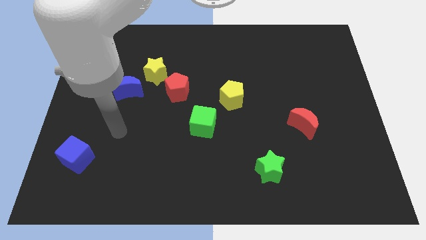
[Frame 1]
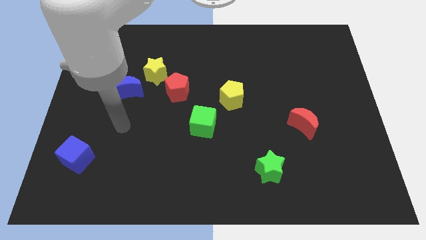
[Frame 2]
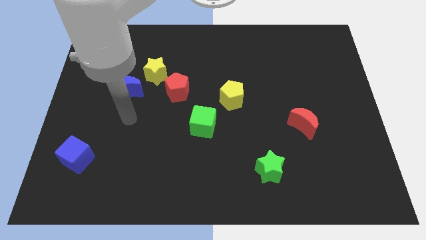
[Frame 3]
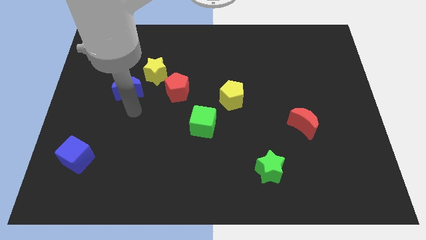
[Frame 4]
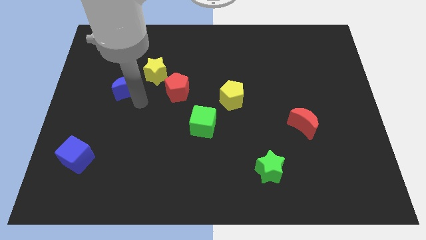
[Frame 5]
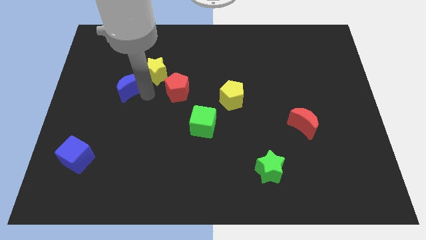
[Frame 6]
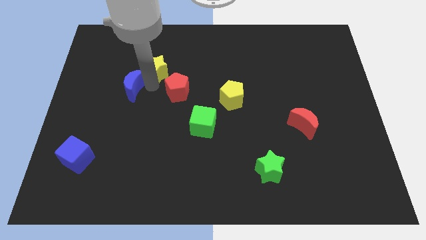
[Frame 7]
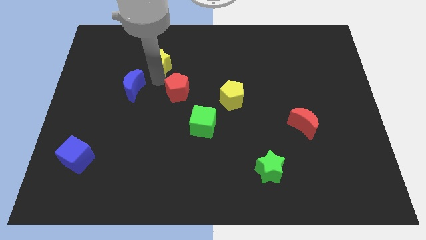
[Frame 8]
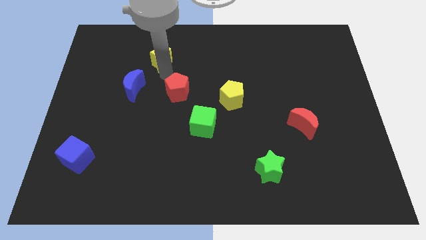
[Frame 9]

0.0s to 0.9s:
pull the red pentagon apart from the yellow star

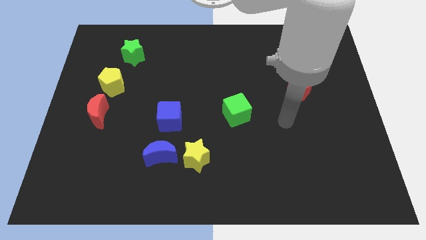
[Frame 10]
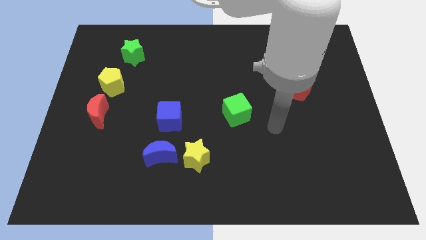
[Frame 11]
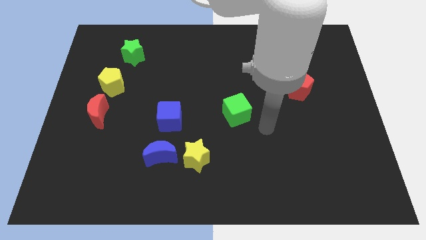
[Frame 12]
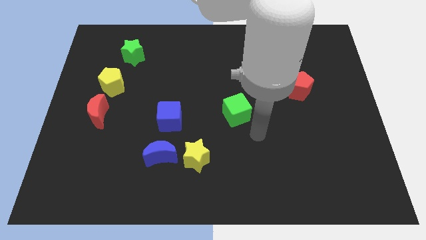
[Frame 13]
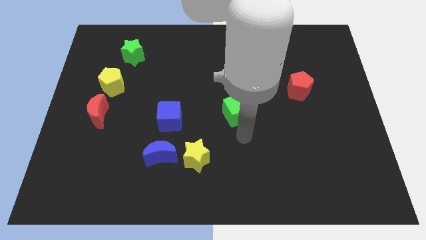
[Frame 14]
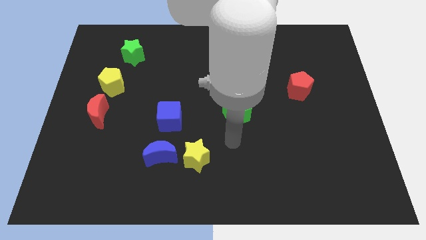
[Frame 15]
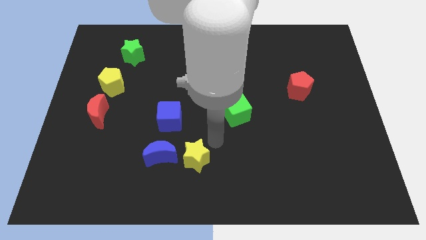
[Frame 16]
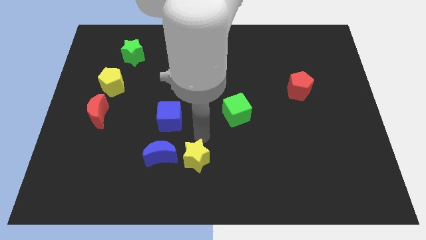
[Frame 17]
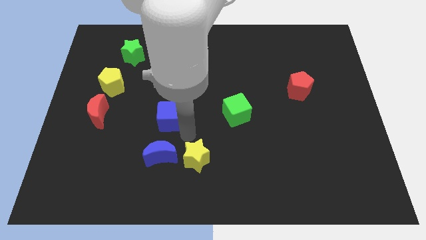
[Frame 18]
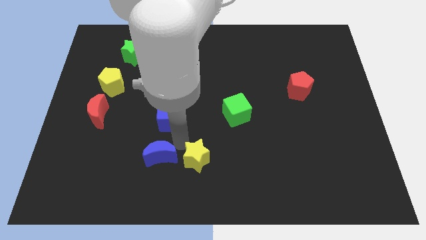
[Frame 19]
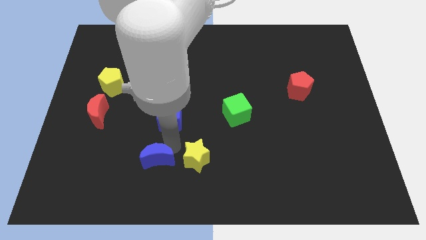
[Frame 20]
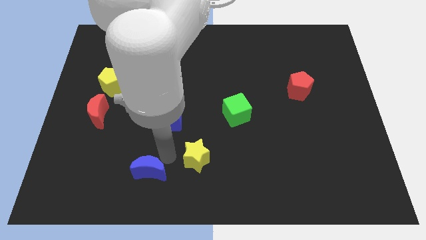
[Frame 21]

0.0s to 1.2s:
separate the yellow star from the blue moon

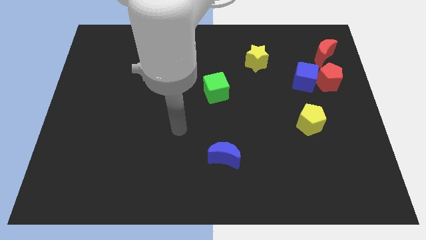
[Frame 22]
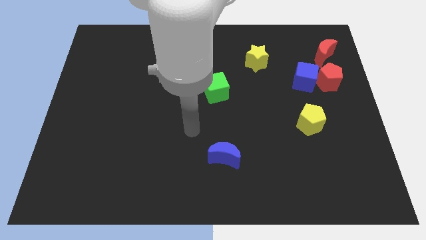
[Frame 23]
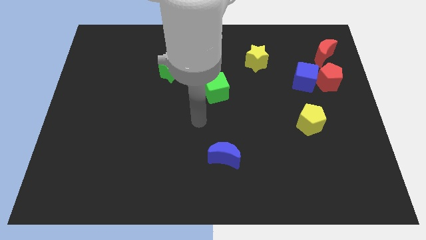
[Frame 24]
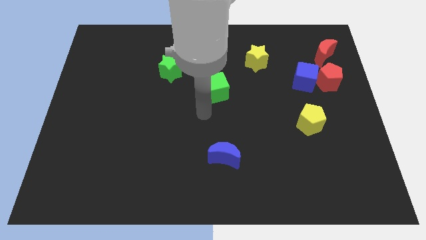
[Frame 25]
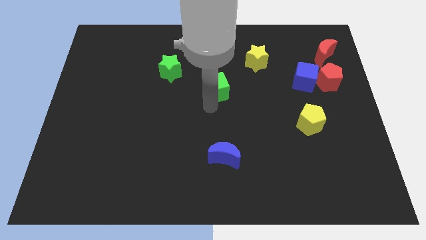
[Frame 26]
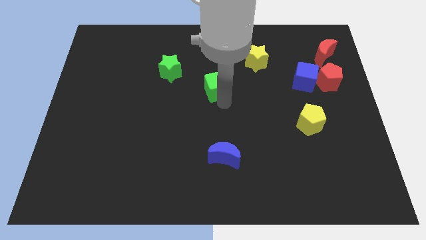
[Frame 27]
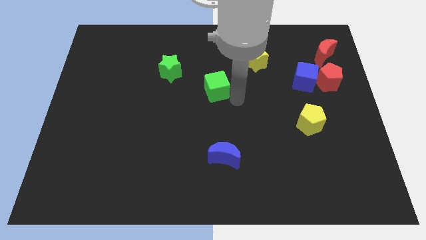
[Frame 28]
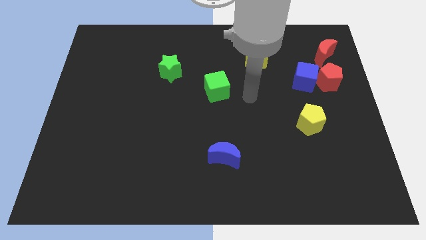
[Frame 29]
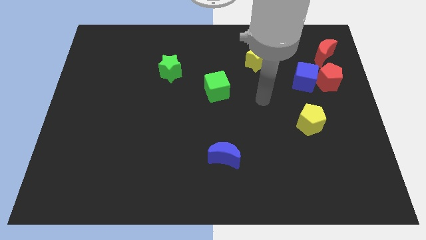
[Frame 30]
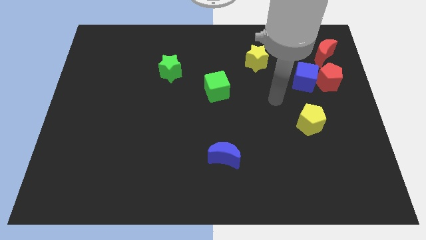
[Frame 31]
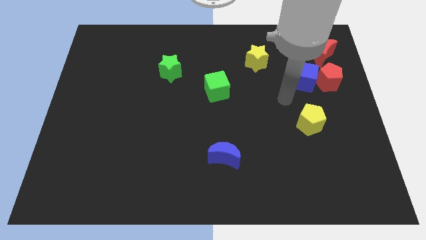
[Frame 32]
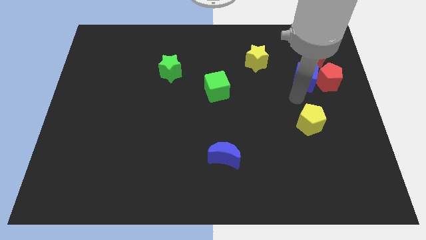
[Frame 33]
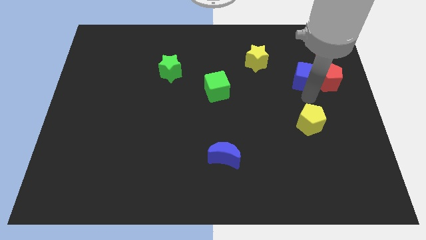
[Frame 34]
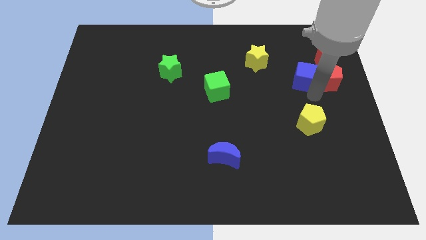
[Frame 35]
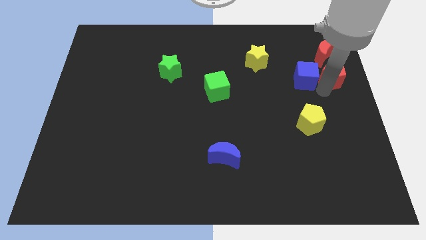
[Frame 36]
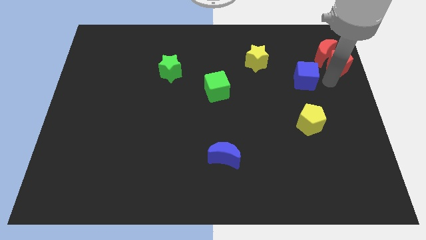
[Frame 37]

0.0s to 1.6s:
separate the blue cube from the red pentagon

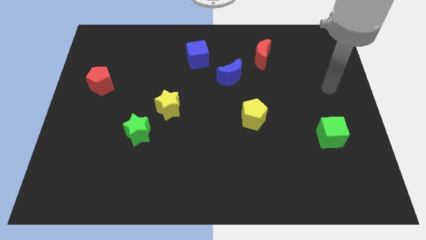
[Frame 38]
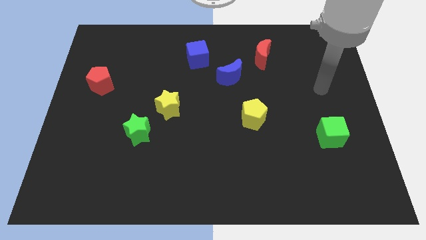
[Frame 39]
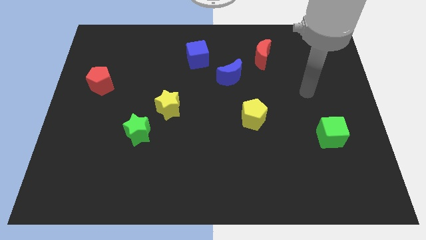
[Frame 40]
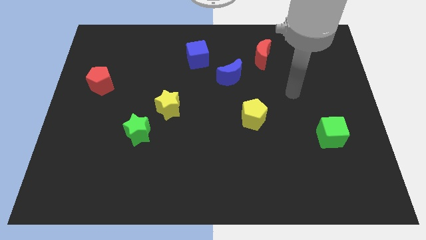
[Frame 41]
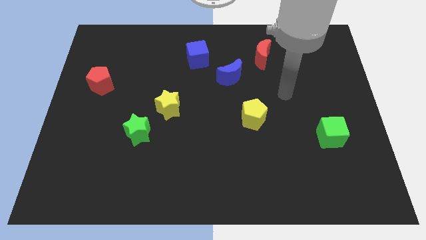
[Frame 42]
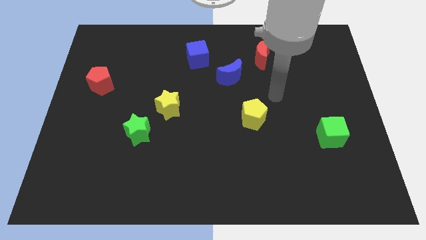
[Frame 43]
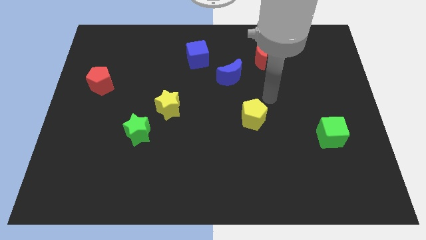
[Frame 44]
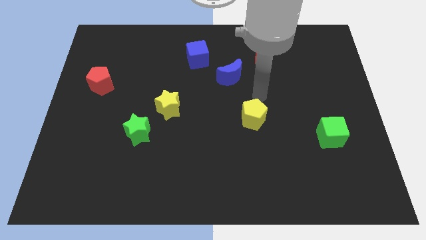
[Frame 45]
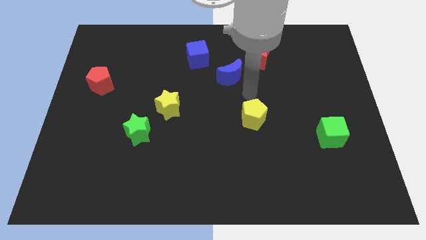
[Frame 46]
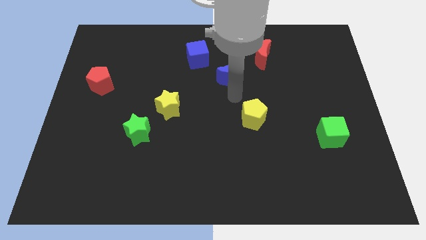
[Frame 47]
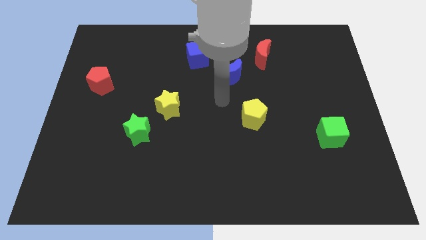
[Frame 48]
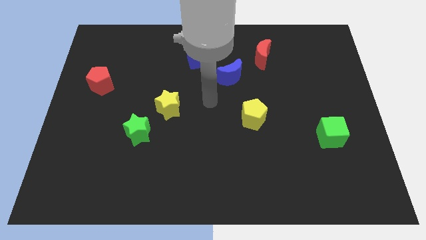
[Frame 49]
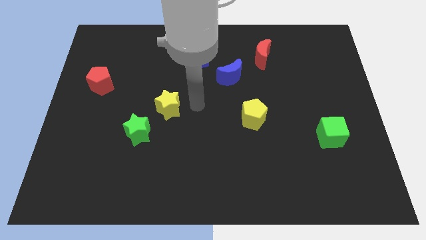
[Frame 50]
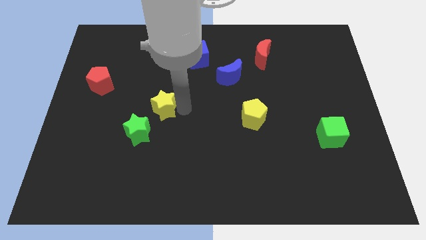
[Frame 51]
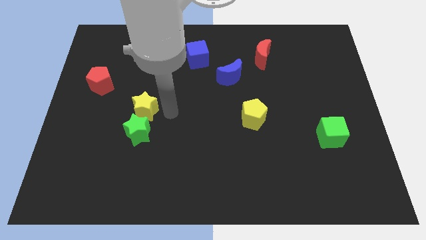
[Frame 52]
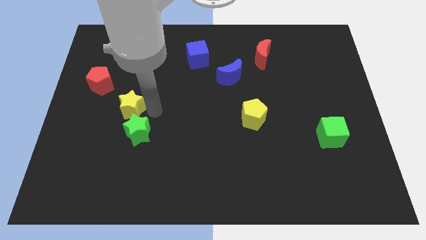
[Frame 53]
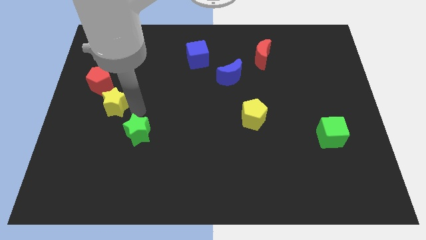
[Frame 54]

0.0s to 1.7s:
pull the green star apart from the yellow star

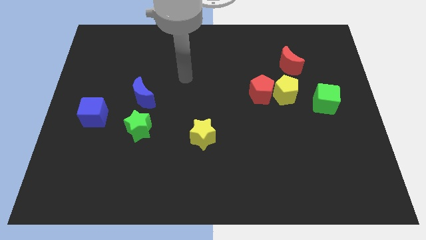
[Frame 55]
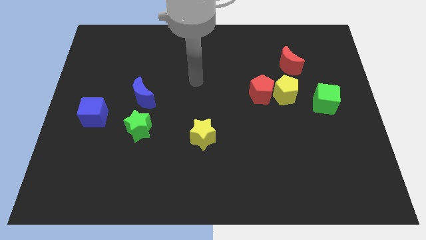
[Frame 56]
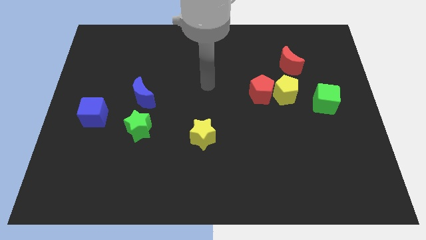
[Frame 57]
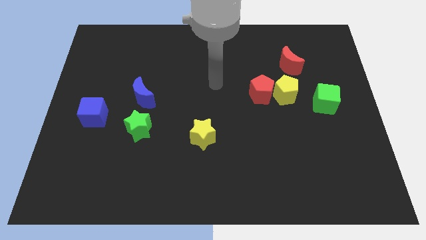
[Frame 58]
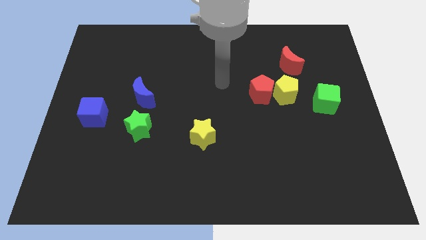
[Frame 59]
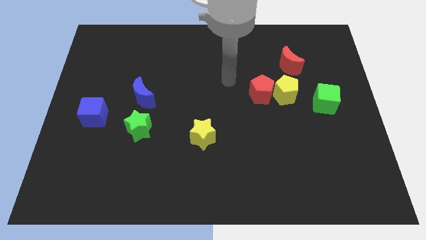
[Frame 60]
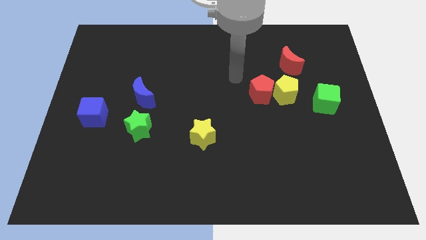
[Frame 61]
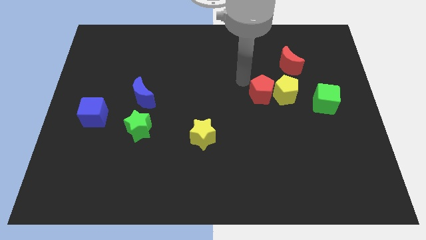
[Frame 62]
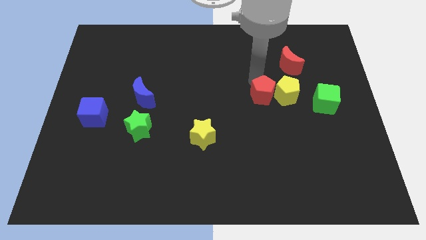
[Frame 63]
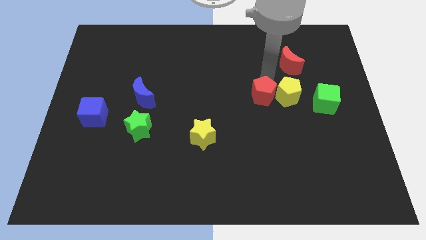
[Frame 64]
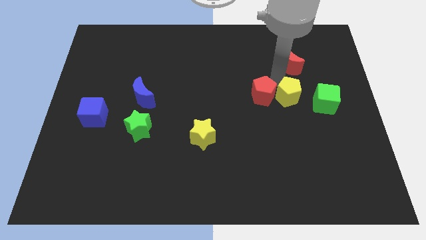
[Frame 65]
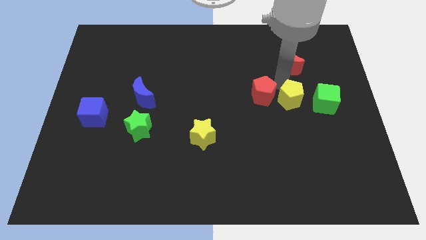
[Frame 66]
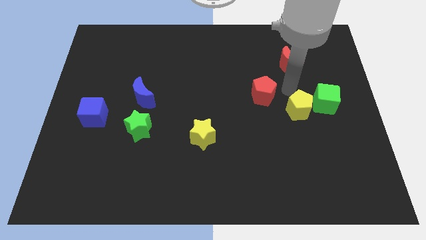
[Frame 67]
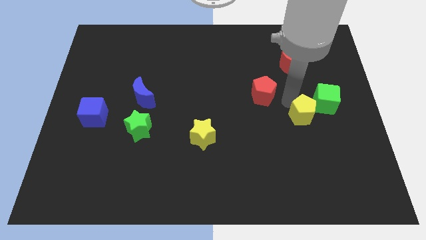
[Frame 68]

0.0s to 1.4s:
move the red pentagon away from the yellow pentagon

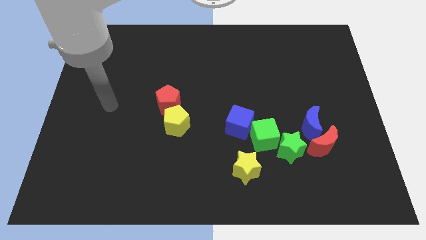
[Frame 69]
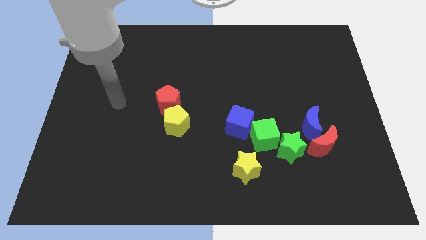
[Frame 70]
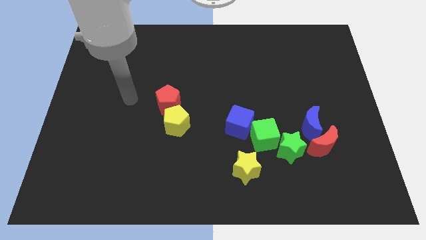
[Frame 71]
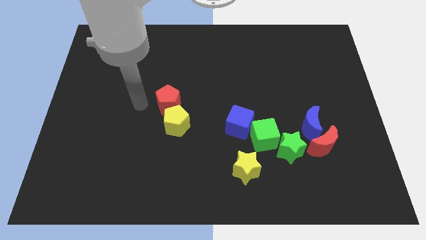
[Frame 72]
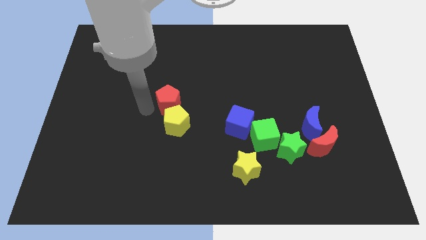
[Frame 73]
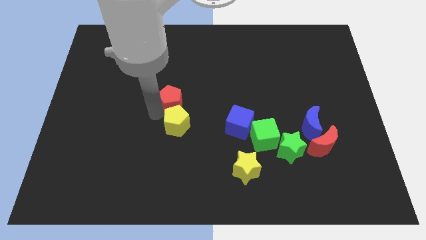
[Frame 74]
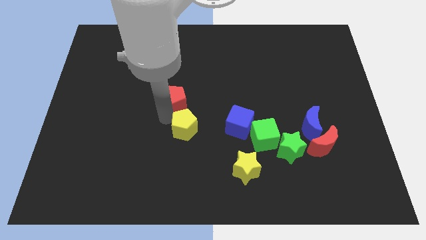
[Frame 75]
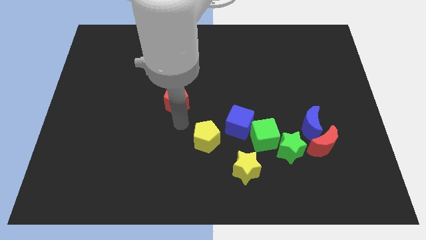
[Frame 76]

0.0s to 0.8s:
pull the red pentagon apart from the yellow pentagon

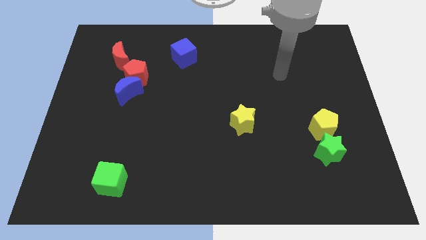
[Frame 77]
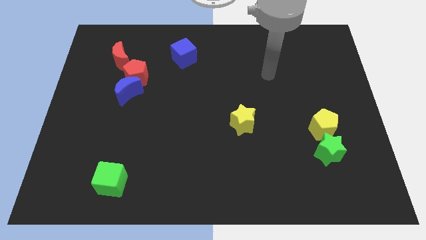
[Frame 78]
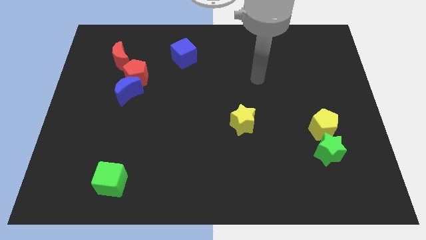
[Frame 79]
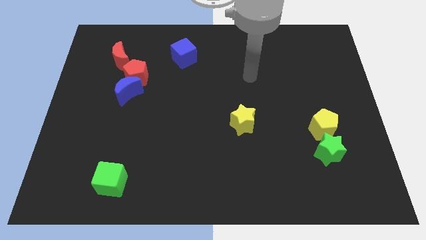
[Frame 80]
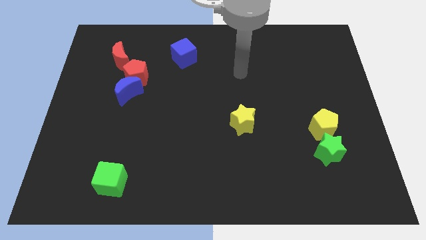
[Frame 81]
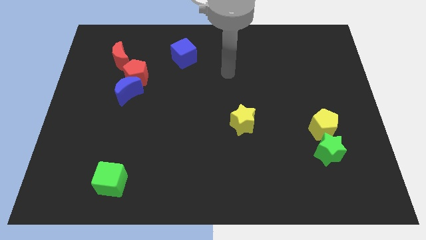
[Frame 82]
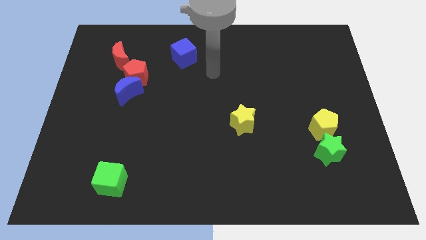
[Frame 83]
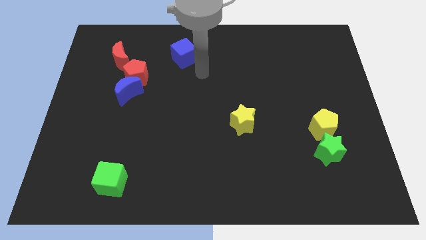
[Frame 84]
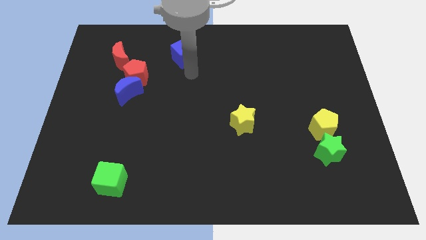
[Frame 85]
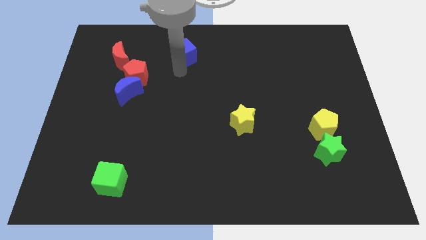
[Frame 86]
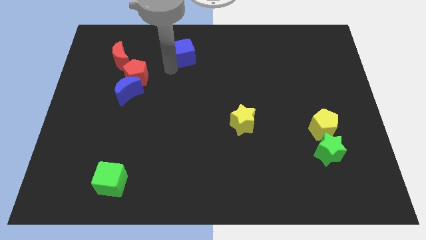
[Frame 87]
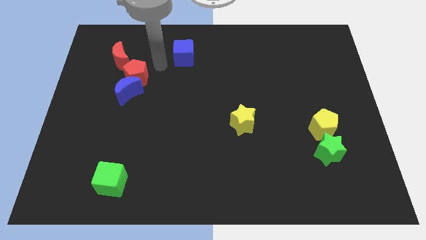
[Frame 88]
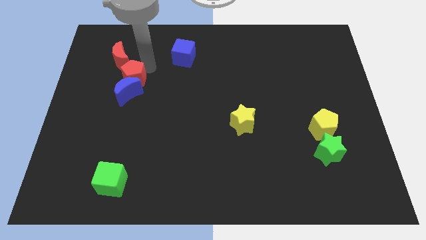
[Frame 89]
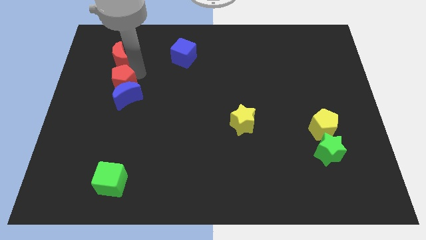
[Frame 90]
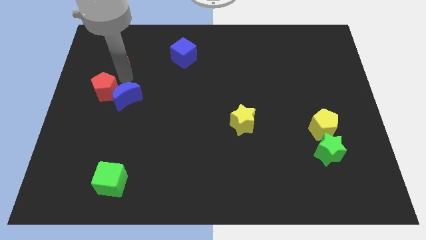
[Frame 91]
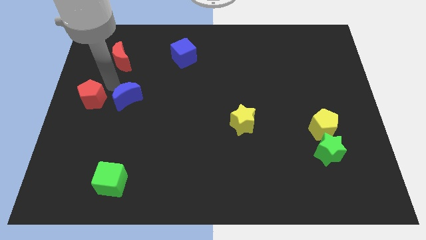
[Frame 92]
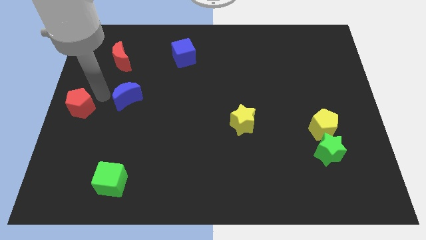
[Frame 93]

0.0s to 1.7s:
separate the blue moon from the red pentagon
